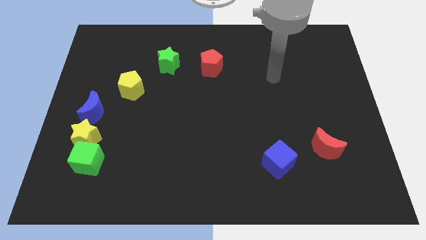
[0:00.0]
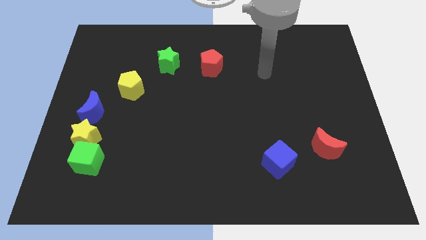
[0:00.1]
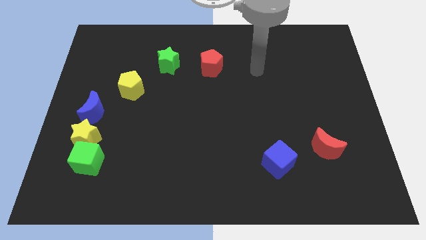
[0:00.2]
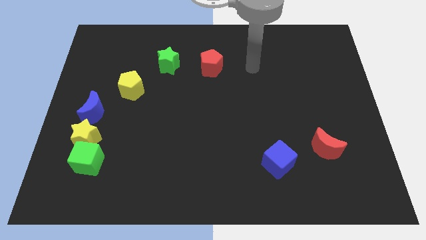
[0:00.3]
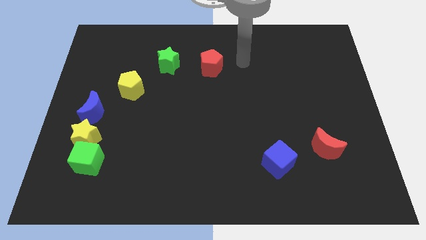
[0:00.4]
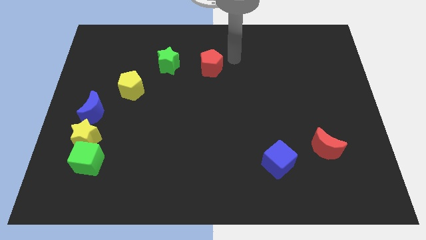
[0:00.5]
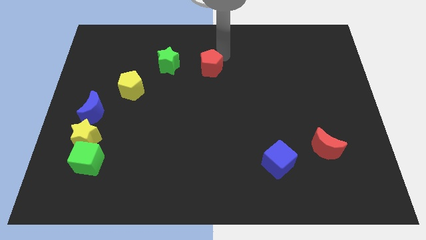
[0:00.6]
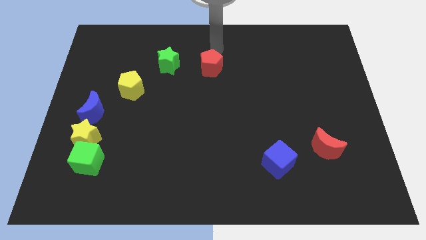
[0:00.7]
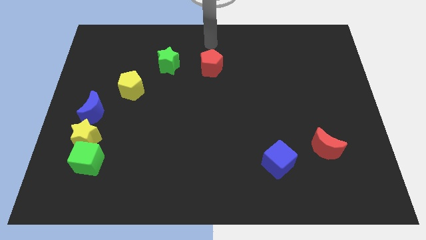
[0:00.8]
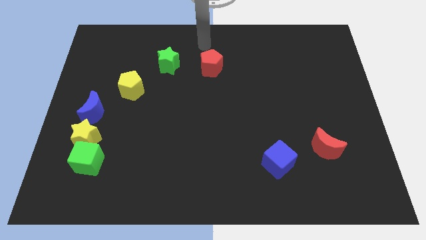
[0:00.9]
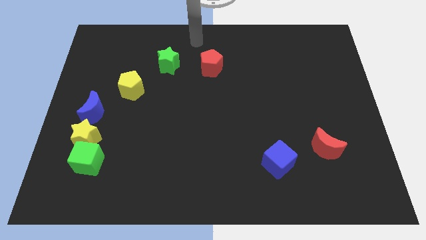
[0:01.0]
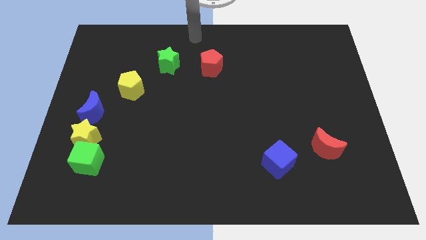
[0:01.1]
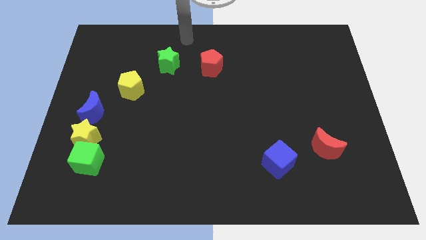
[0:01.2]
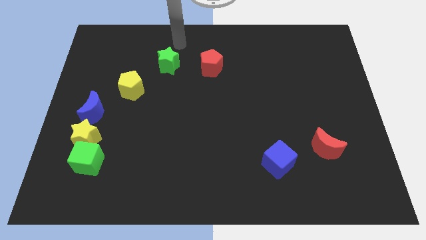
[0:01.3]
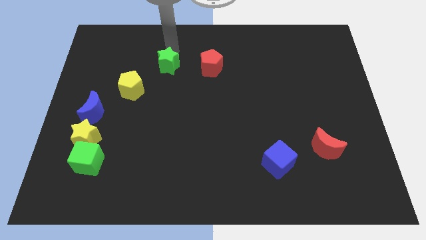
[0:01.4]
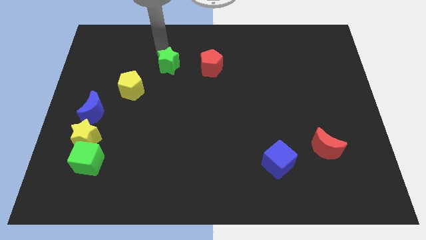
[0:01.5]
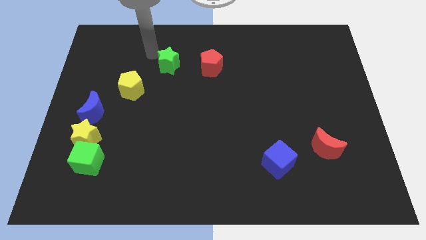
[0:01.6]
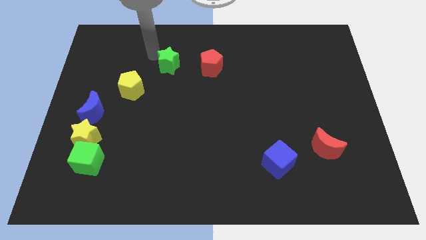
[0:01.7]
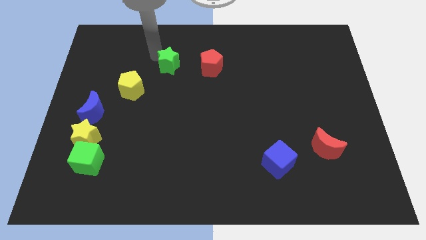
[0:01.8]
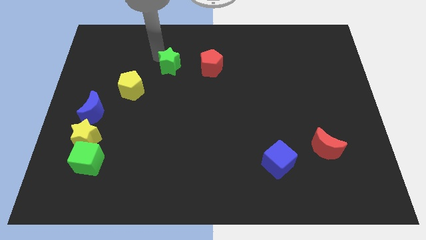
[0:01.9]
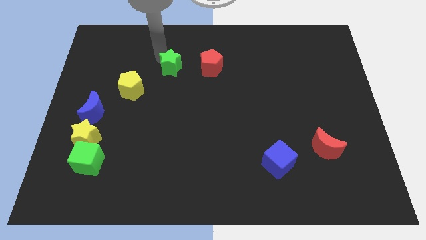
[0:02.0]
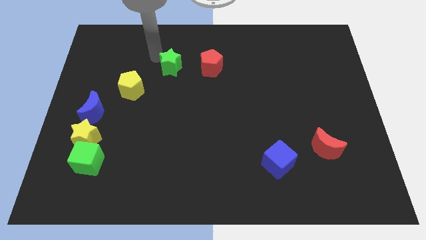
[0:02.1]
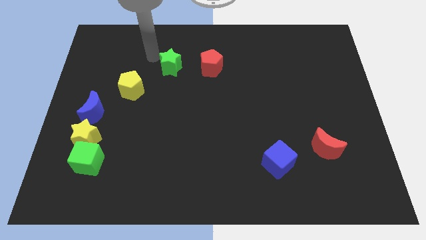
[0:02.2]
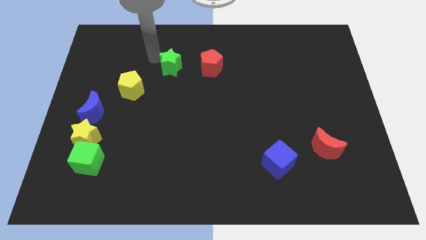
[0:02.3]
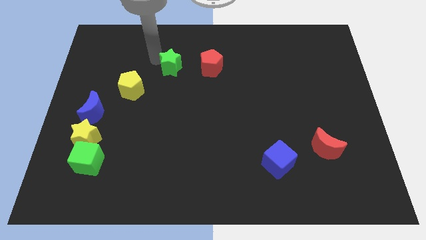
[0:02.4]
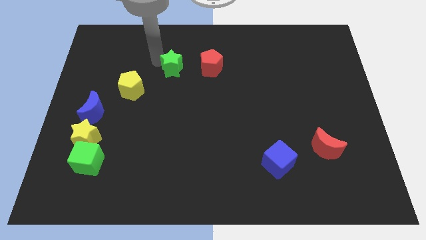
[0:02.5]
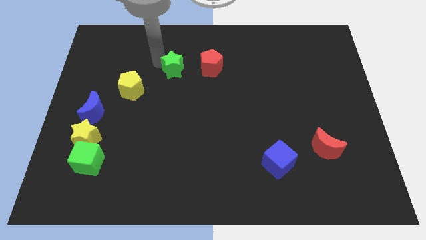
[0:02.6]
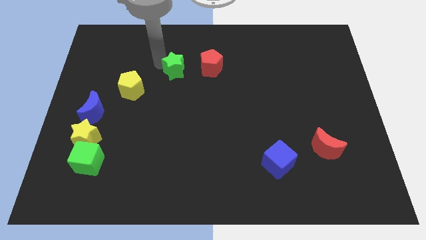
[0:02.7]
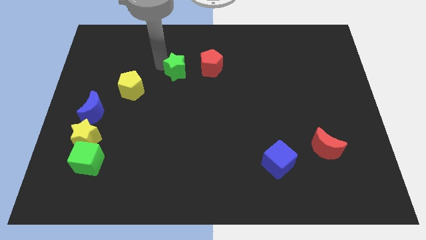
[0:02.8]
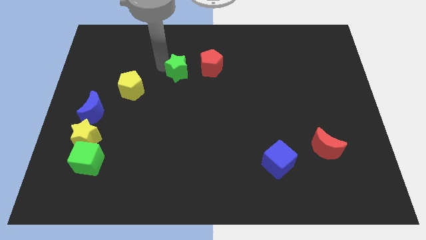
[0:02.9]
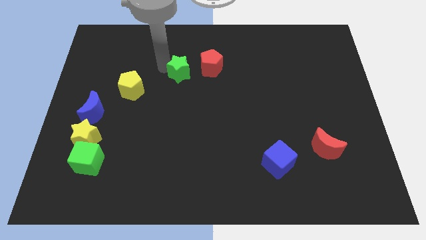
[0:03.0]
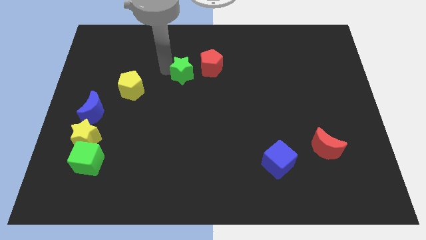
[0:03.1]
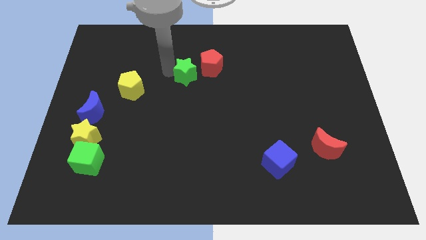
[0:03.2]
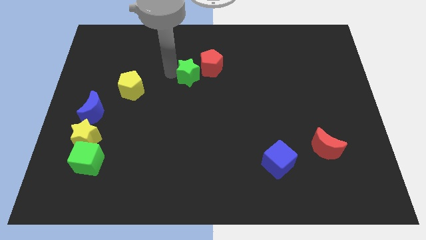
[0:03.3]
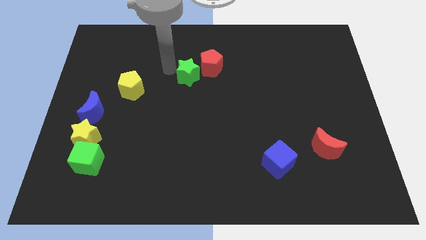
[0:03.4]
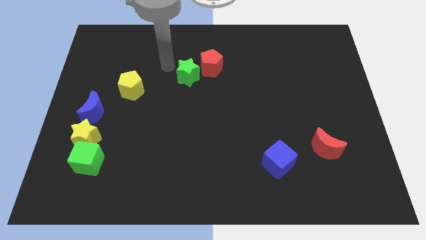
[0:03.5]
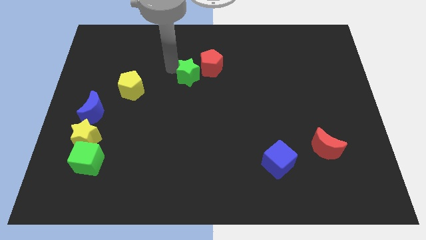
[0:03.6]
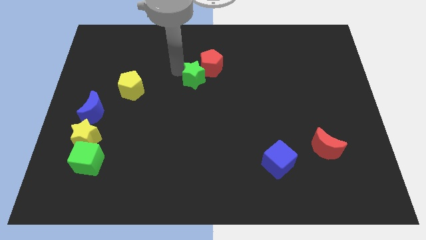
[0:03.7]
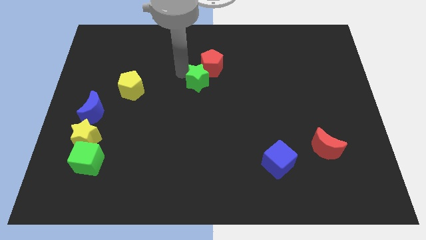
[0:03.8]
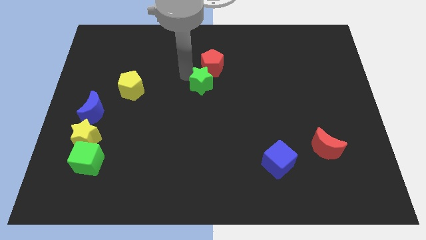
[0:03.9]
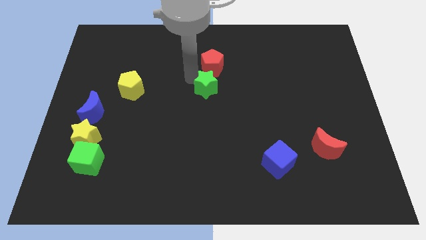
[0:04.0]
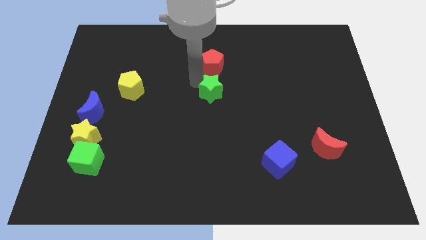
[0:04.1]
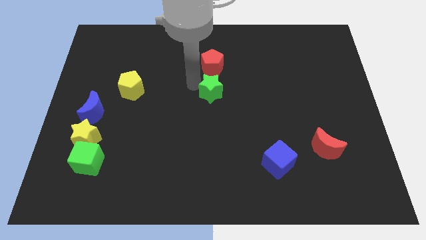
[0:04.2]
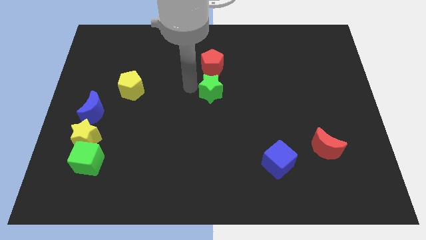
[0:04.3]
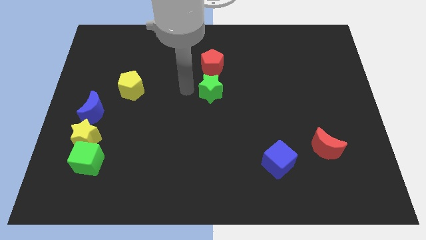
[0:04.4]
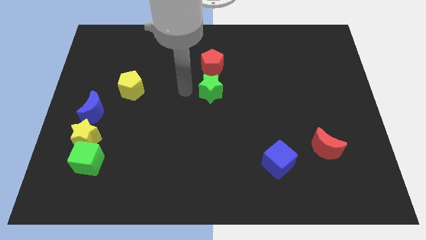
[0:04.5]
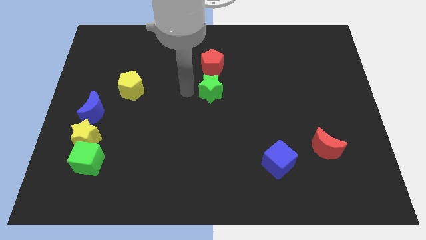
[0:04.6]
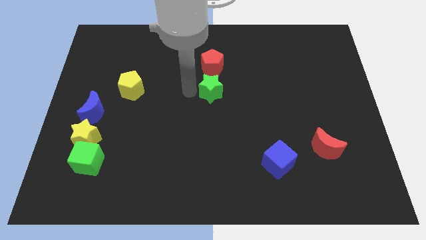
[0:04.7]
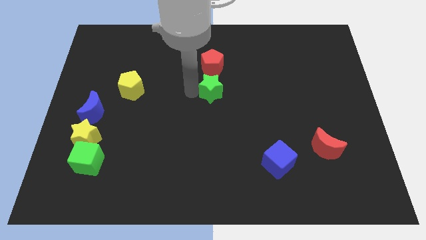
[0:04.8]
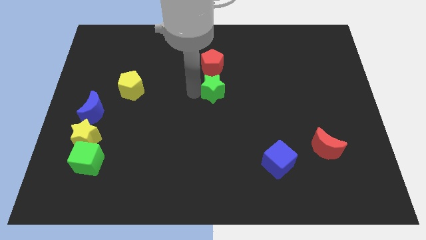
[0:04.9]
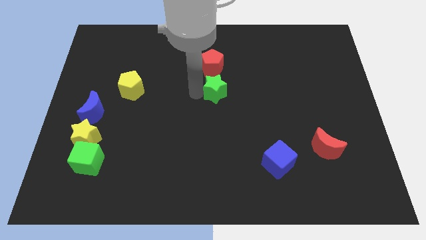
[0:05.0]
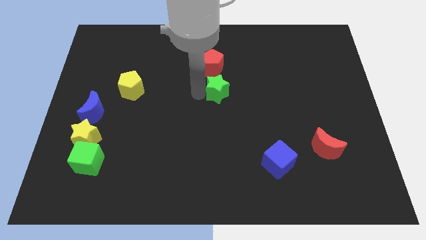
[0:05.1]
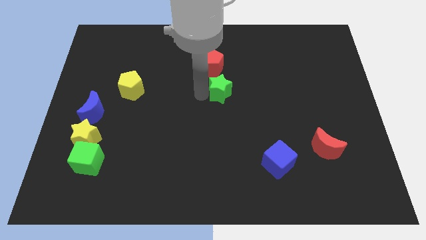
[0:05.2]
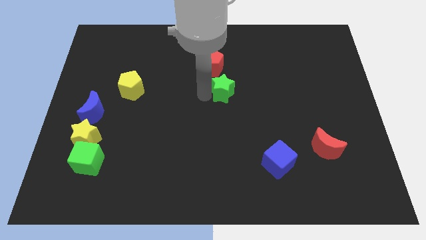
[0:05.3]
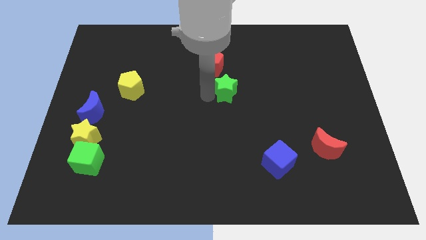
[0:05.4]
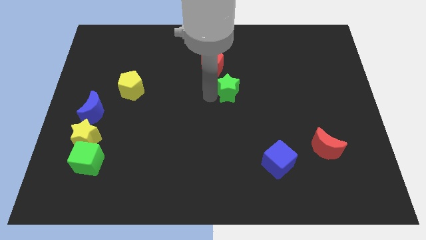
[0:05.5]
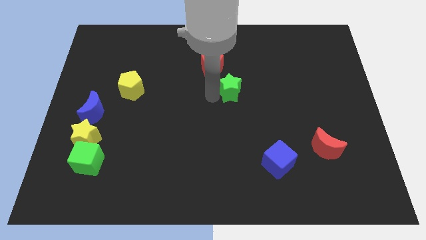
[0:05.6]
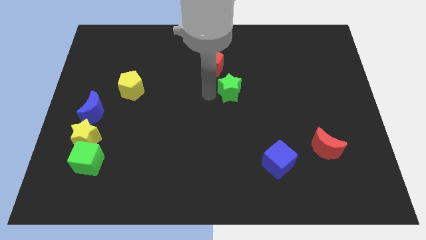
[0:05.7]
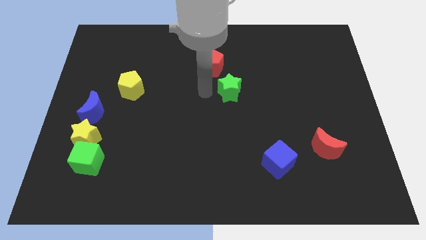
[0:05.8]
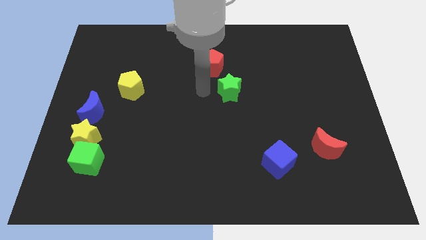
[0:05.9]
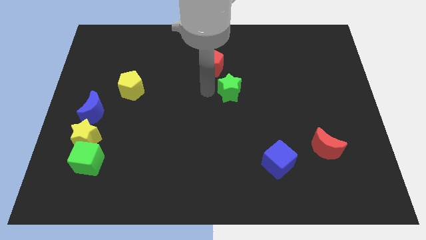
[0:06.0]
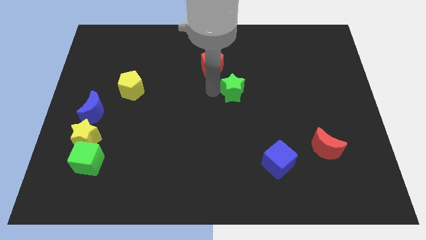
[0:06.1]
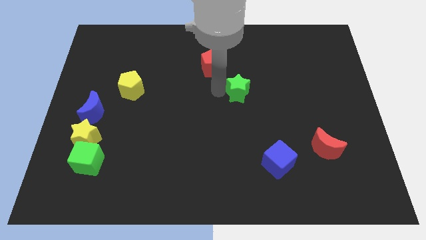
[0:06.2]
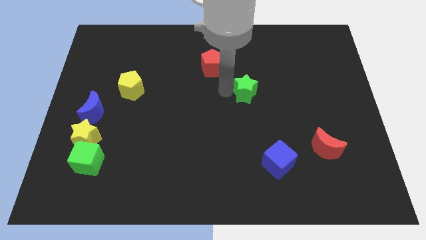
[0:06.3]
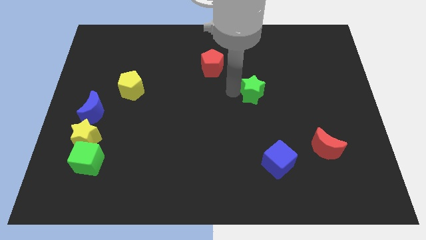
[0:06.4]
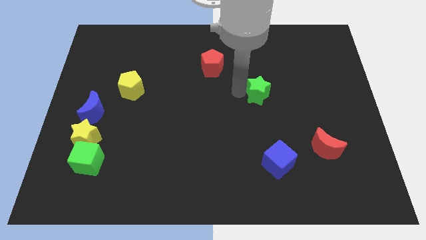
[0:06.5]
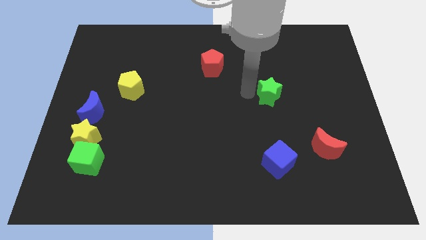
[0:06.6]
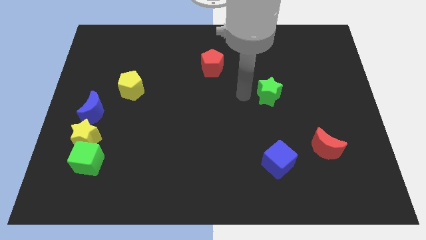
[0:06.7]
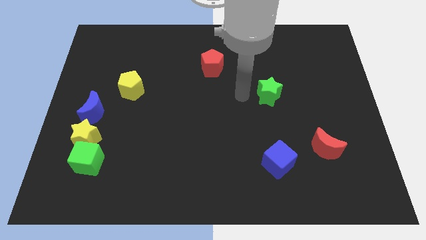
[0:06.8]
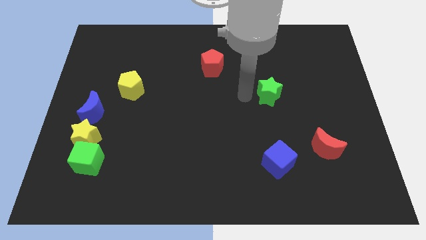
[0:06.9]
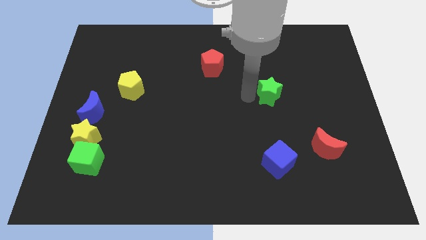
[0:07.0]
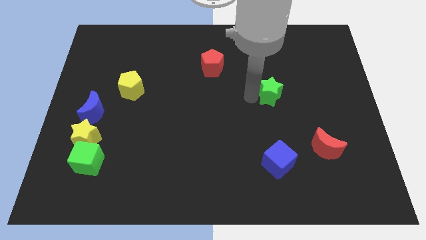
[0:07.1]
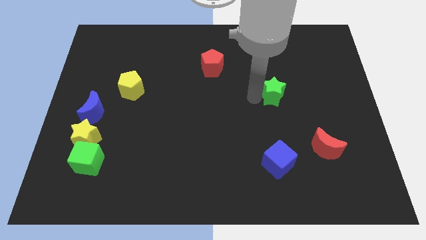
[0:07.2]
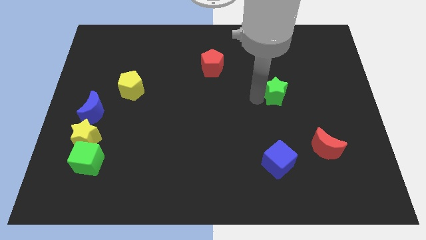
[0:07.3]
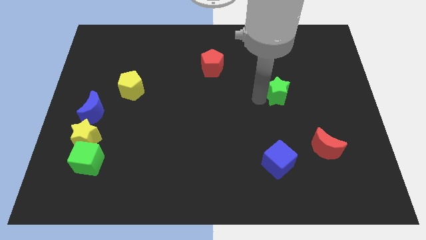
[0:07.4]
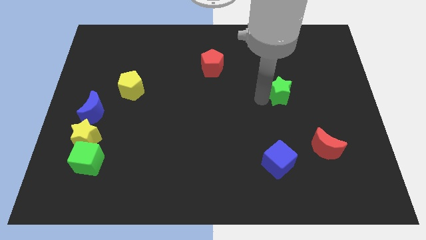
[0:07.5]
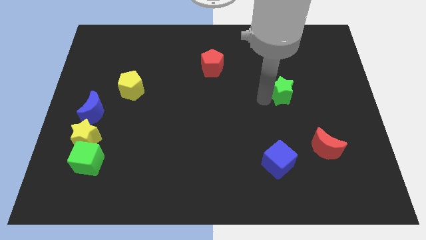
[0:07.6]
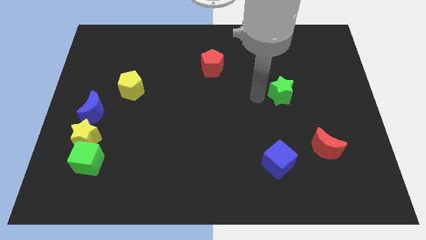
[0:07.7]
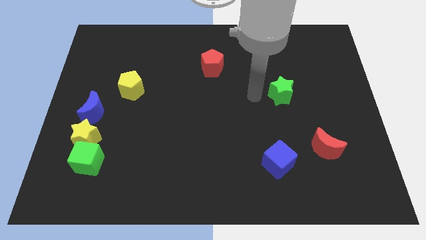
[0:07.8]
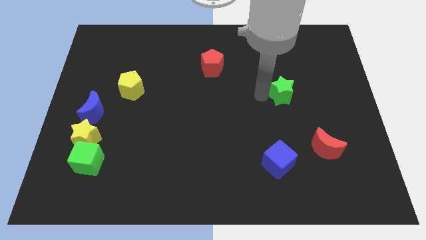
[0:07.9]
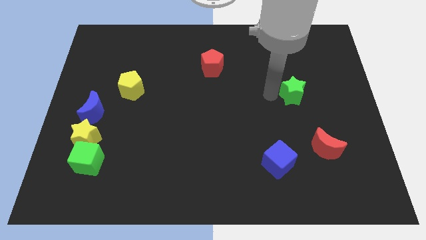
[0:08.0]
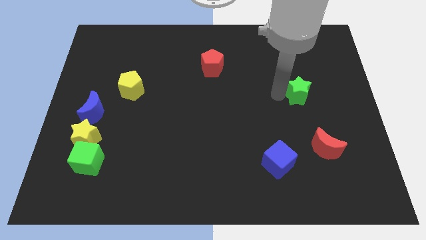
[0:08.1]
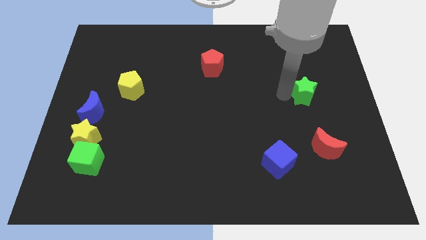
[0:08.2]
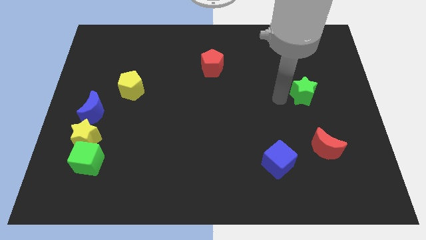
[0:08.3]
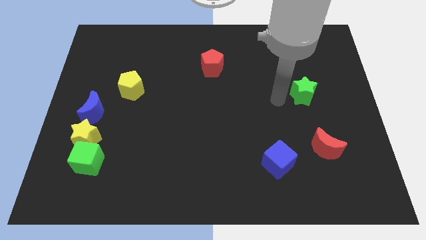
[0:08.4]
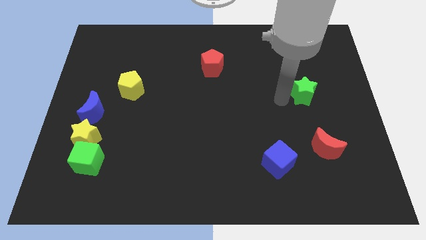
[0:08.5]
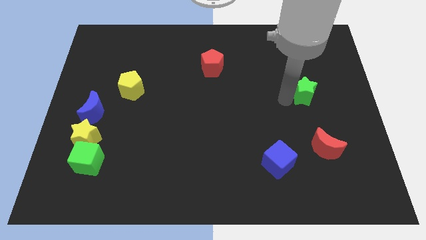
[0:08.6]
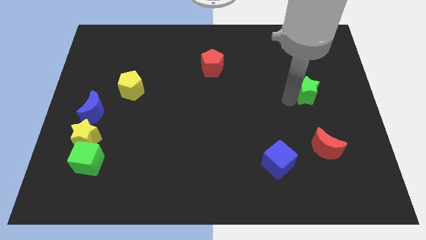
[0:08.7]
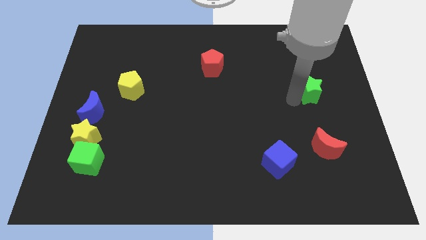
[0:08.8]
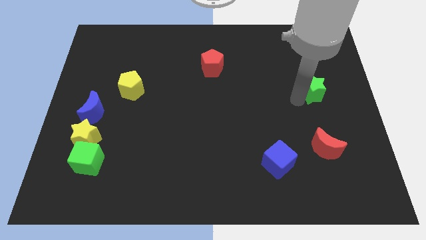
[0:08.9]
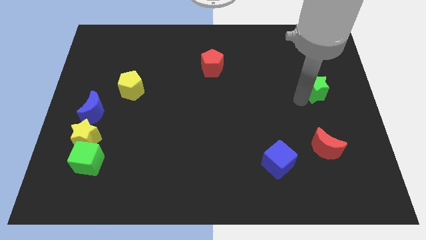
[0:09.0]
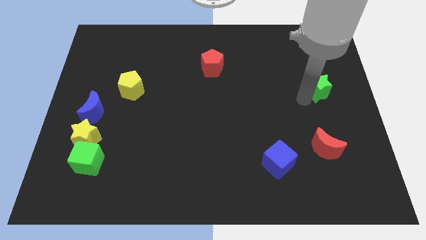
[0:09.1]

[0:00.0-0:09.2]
put the green star to the center right
